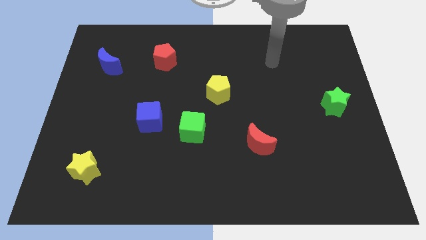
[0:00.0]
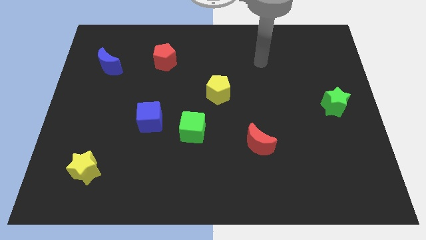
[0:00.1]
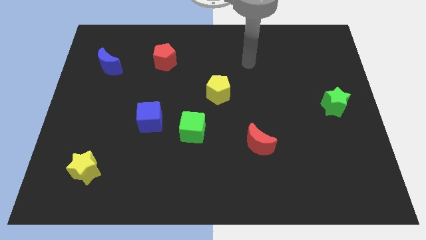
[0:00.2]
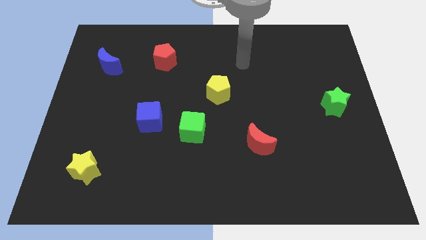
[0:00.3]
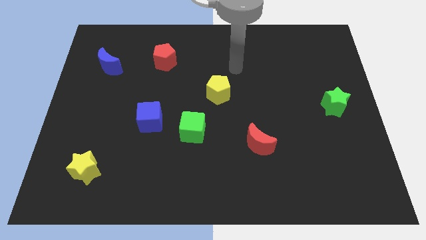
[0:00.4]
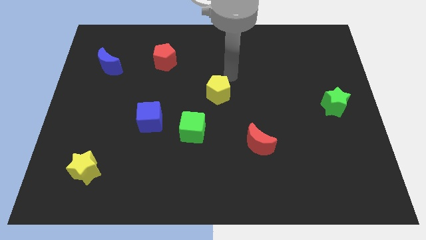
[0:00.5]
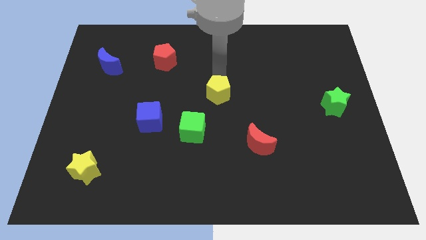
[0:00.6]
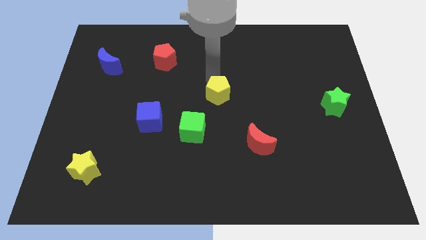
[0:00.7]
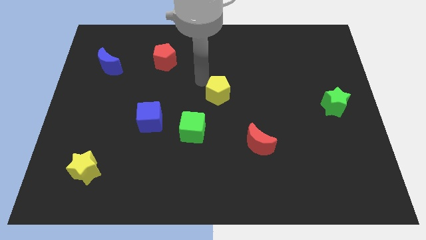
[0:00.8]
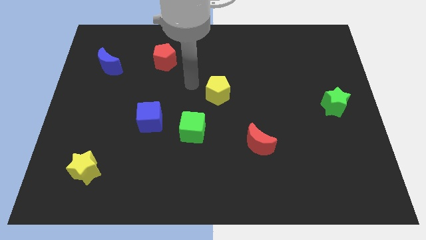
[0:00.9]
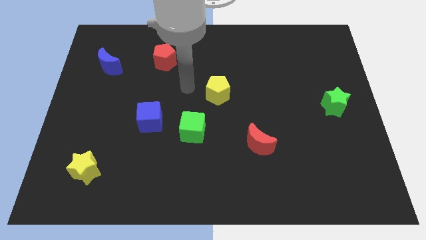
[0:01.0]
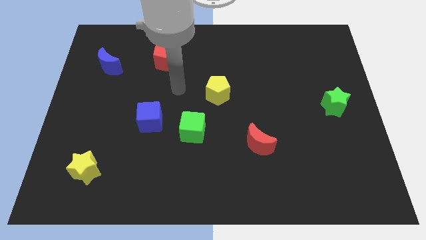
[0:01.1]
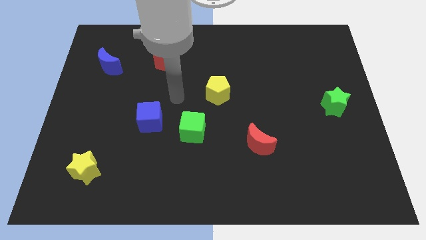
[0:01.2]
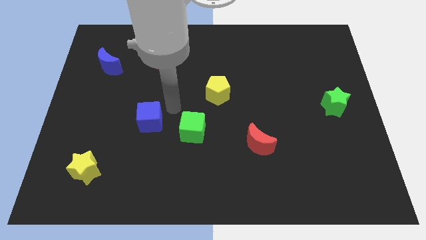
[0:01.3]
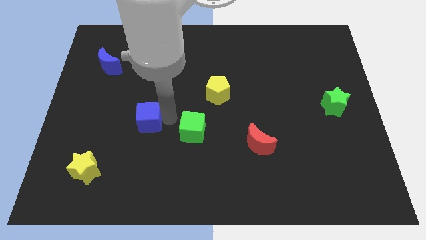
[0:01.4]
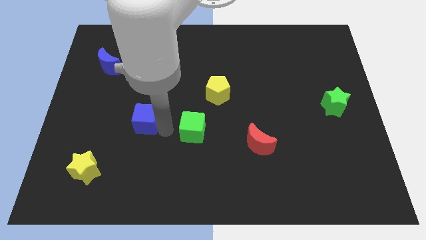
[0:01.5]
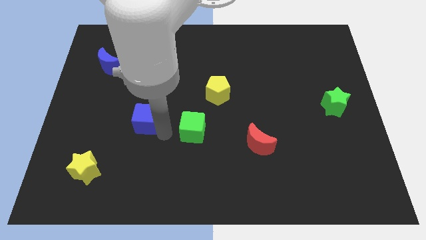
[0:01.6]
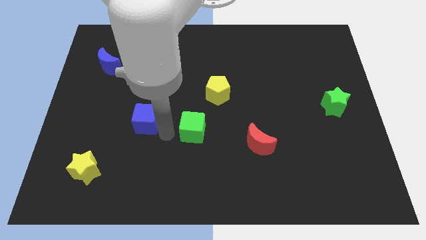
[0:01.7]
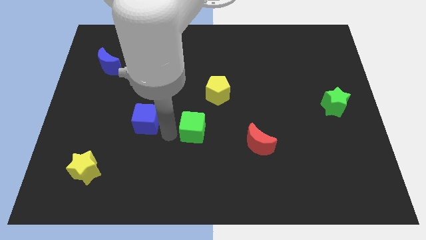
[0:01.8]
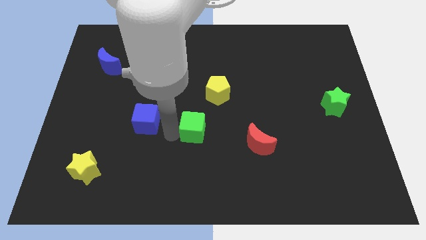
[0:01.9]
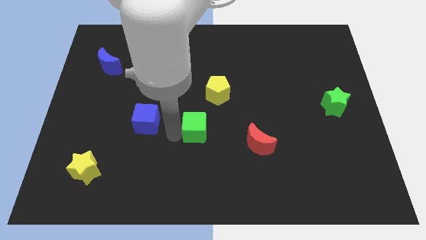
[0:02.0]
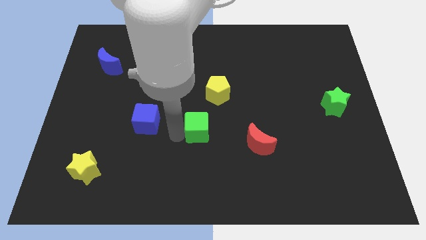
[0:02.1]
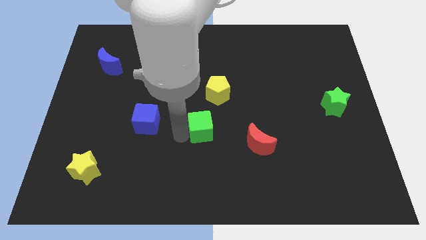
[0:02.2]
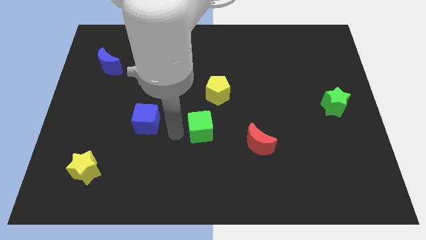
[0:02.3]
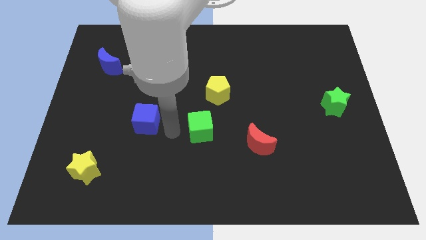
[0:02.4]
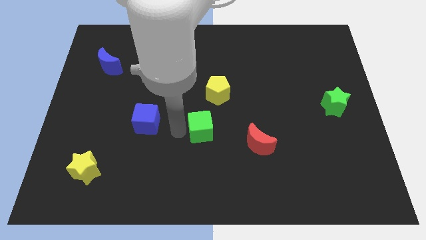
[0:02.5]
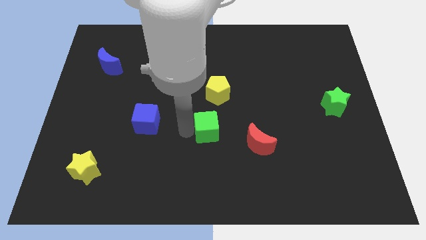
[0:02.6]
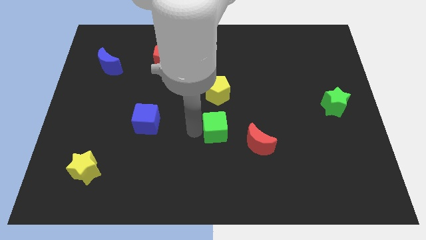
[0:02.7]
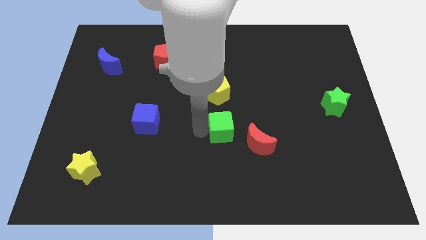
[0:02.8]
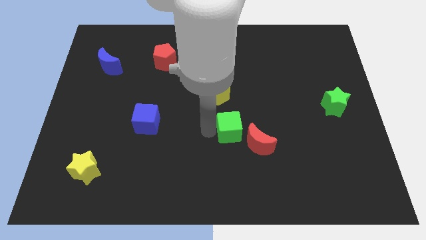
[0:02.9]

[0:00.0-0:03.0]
move the green cube right a little

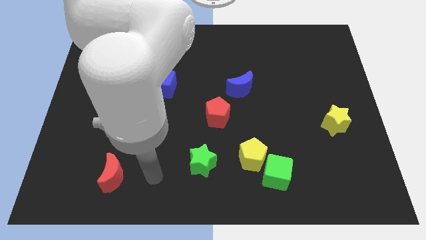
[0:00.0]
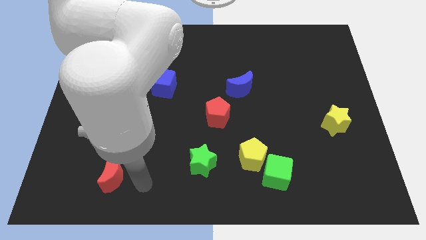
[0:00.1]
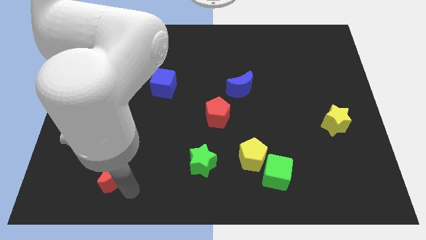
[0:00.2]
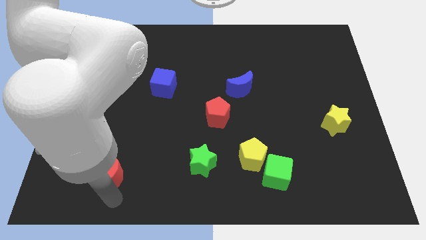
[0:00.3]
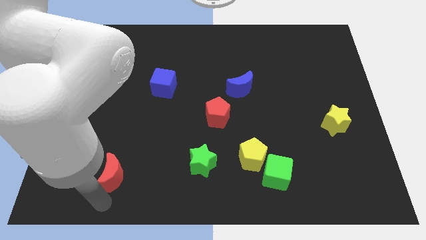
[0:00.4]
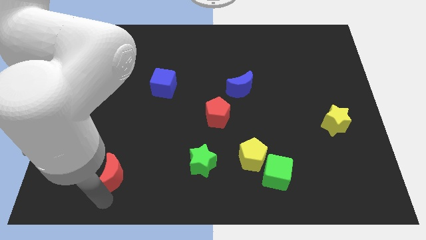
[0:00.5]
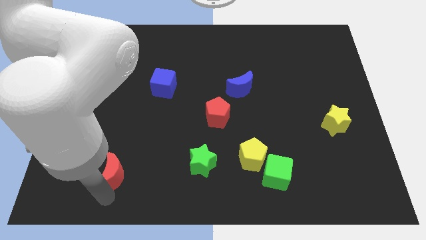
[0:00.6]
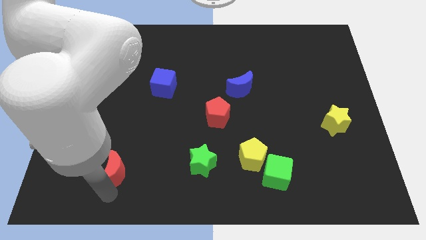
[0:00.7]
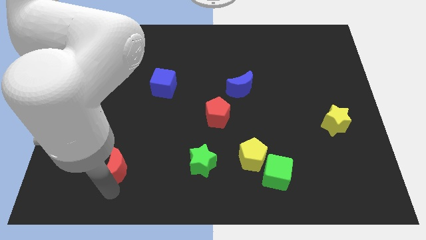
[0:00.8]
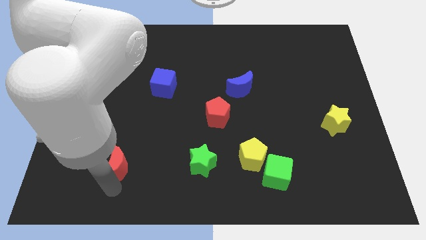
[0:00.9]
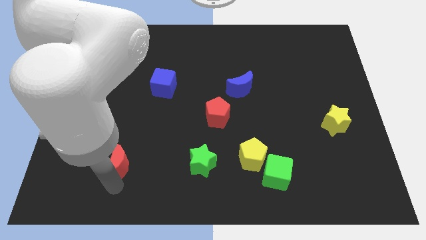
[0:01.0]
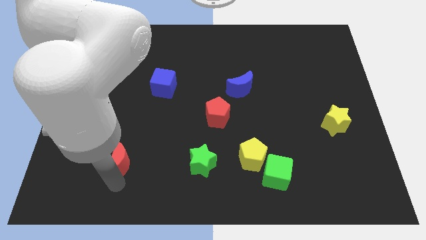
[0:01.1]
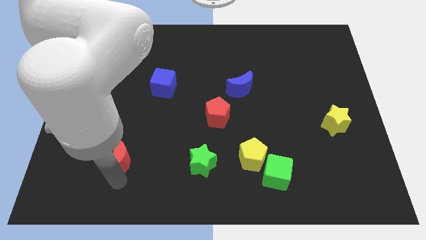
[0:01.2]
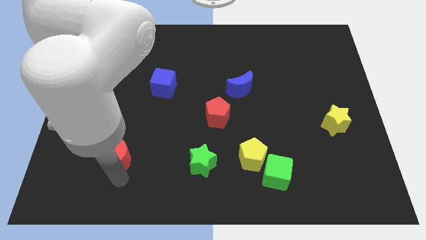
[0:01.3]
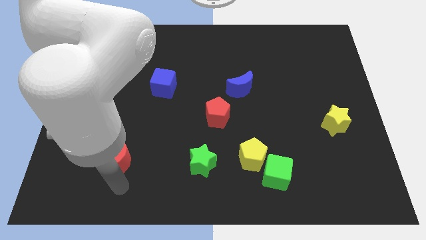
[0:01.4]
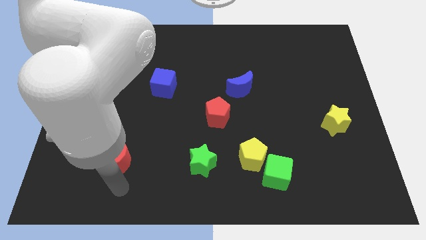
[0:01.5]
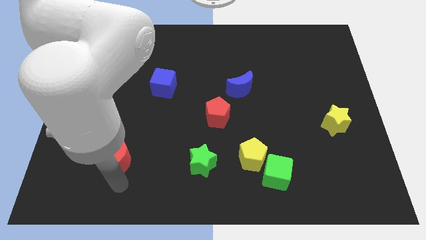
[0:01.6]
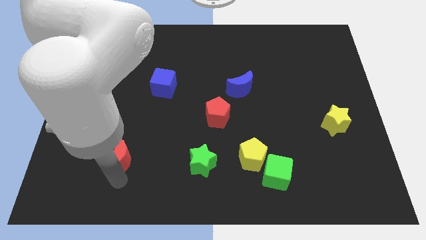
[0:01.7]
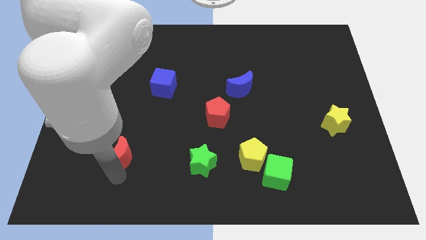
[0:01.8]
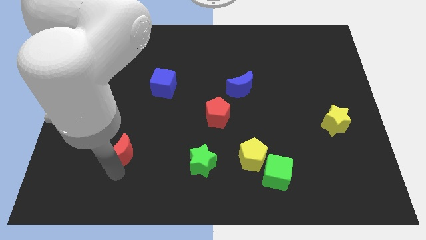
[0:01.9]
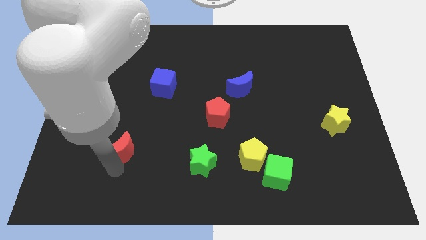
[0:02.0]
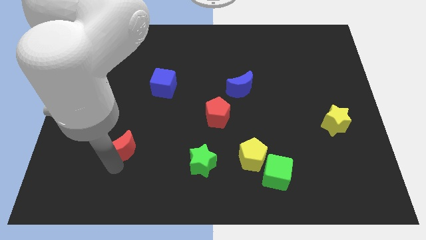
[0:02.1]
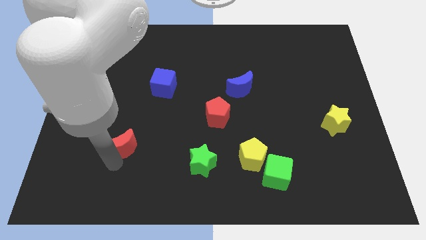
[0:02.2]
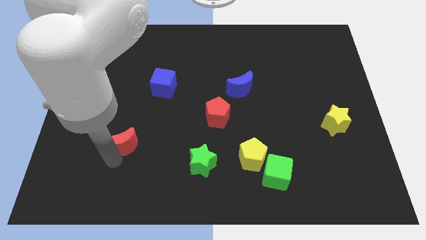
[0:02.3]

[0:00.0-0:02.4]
slide the red moon a little upwards

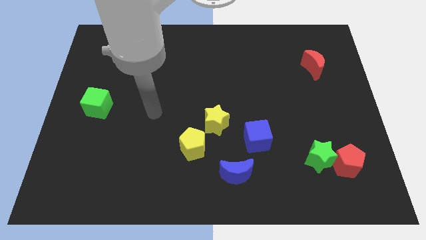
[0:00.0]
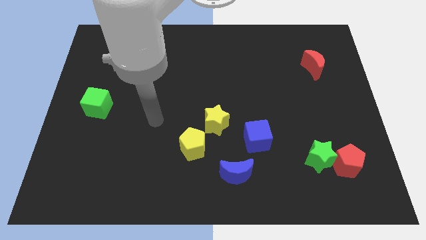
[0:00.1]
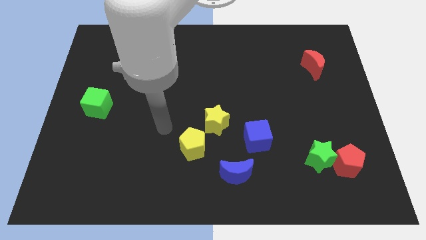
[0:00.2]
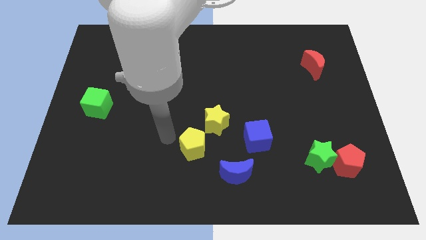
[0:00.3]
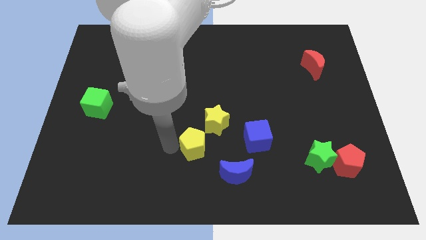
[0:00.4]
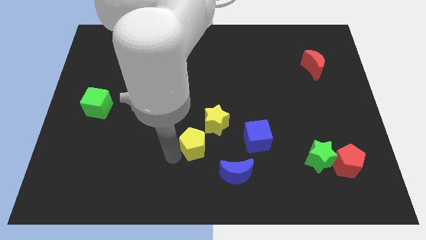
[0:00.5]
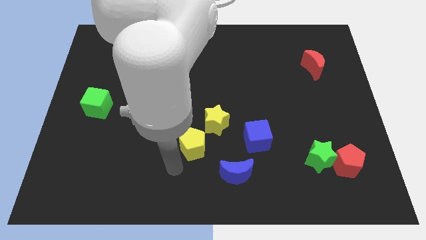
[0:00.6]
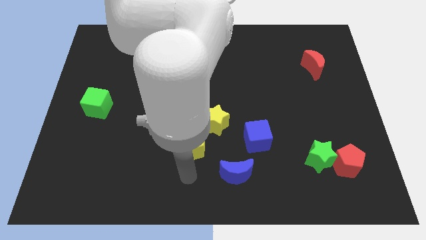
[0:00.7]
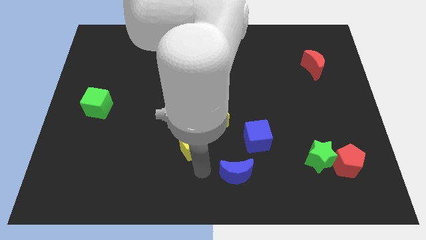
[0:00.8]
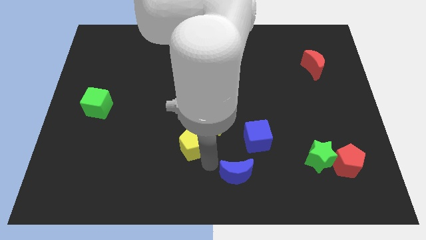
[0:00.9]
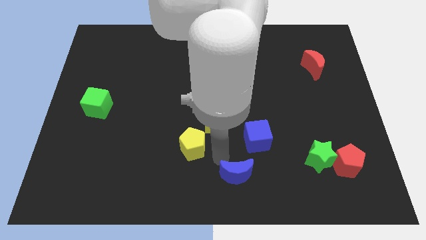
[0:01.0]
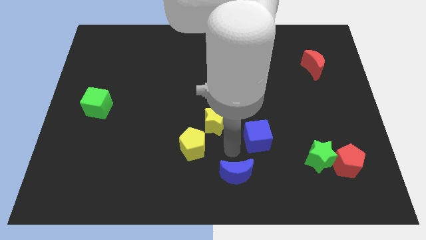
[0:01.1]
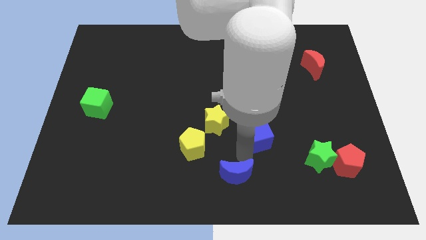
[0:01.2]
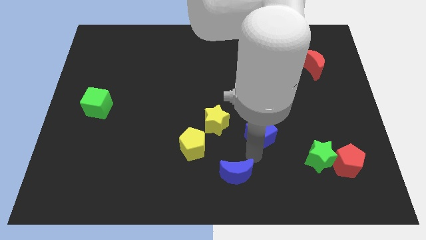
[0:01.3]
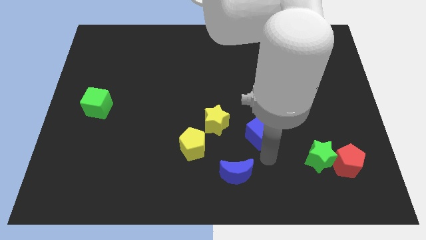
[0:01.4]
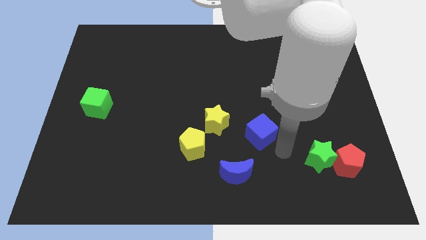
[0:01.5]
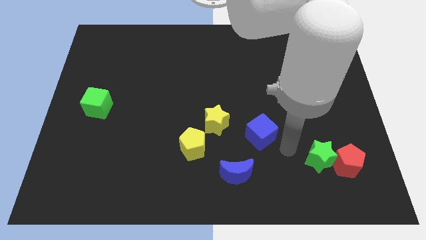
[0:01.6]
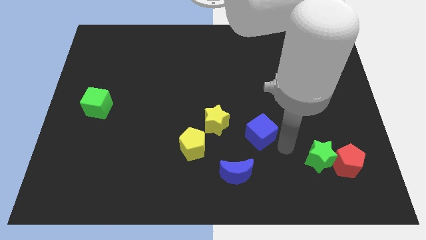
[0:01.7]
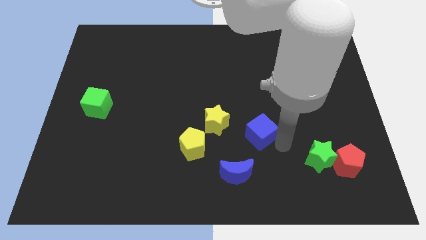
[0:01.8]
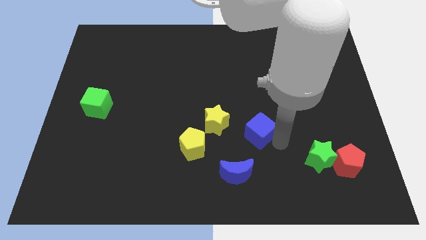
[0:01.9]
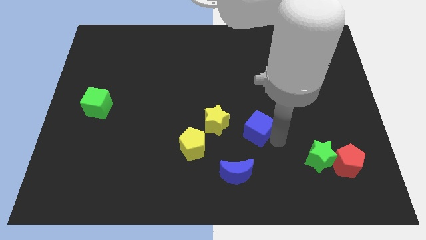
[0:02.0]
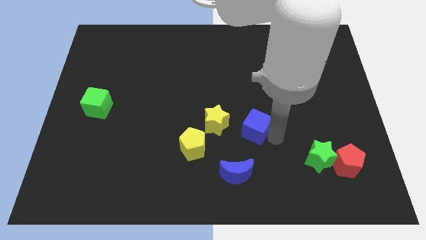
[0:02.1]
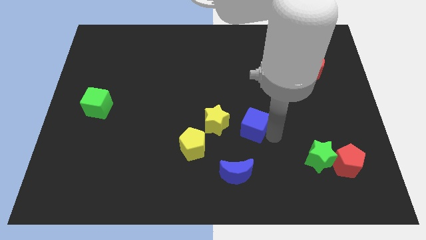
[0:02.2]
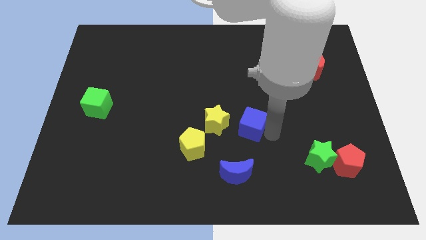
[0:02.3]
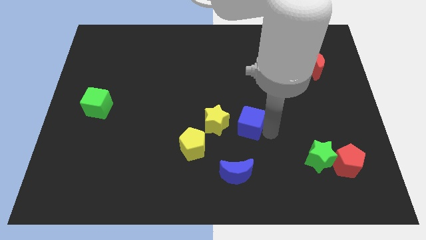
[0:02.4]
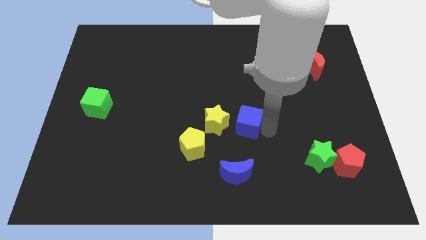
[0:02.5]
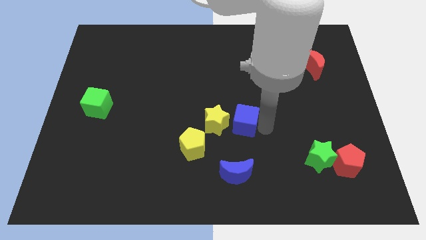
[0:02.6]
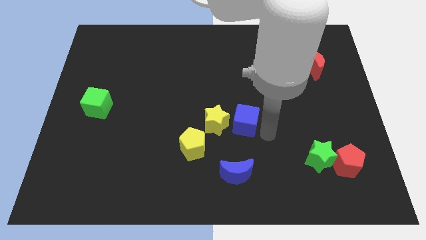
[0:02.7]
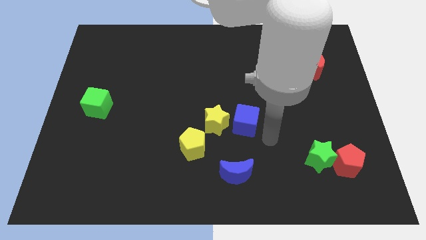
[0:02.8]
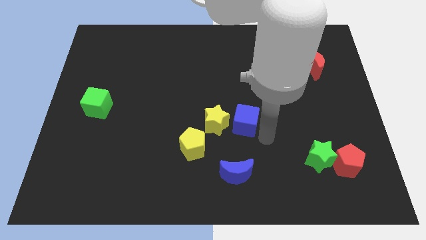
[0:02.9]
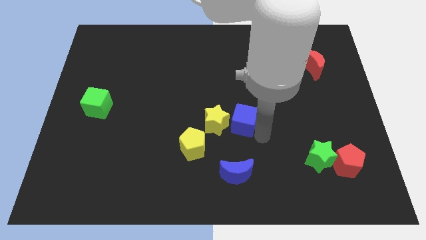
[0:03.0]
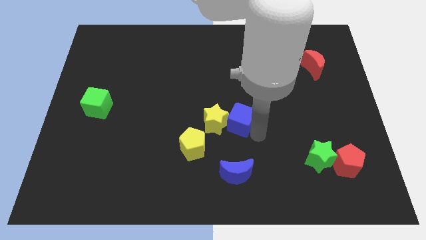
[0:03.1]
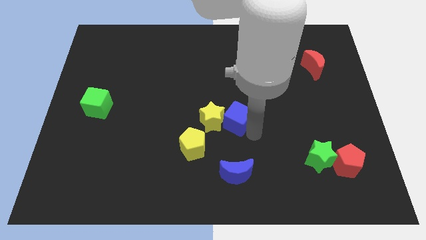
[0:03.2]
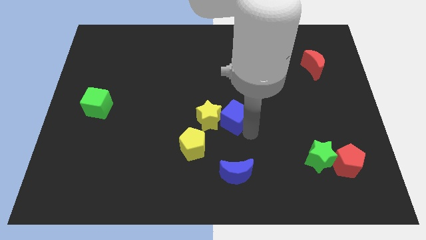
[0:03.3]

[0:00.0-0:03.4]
slightly push the blue cube up and left
